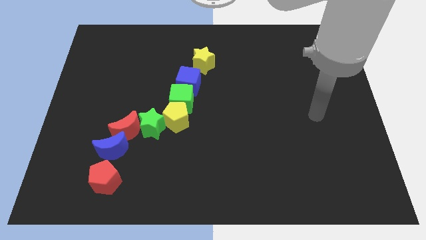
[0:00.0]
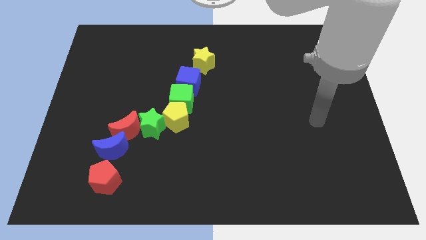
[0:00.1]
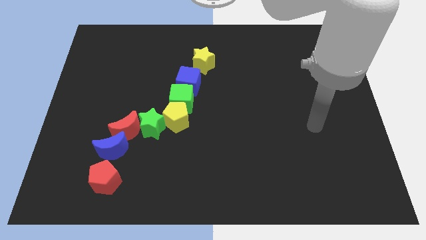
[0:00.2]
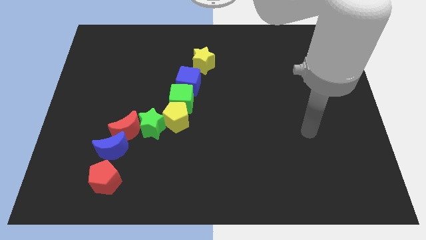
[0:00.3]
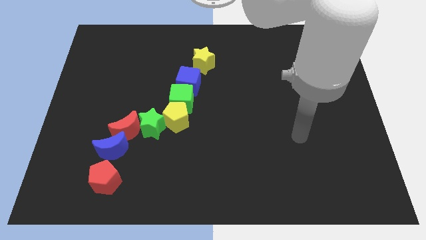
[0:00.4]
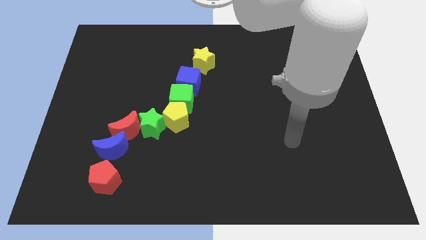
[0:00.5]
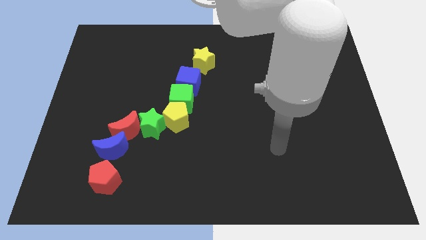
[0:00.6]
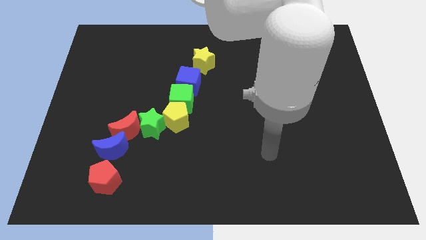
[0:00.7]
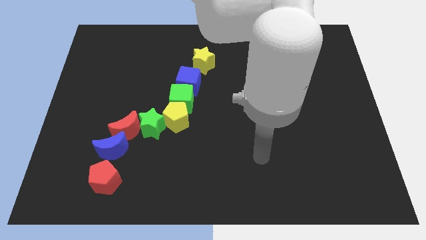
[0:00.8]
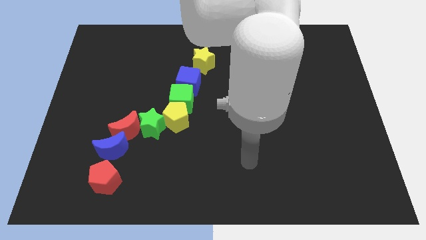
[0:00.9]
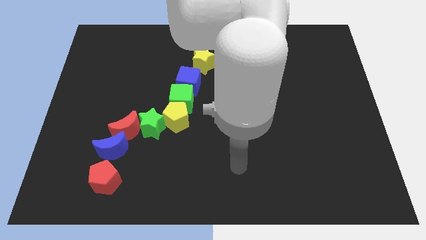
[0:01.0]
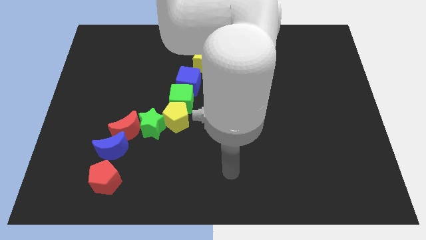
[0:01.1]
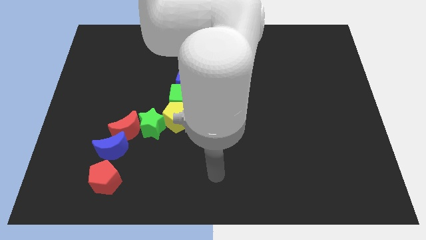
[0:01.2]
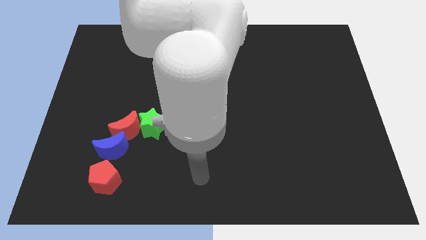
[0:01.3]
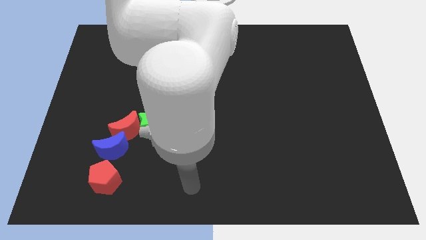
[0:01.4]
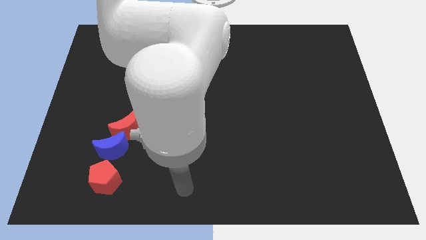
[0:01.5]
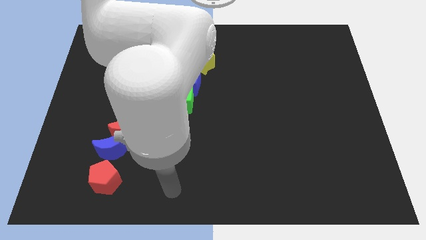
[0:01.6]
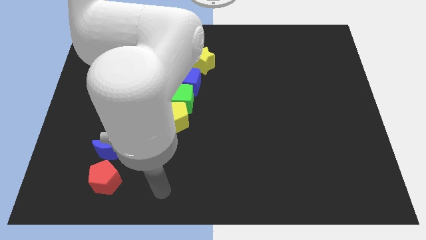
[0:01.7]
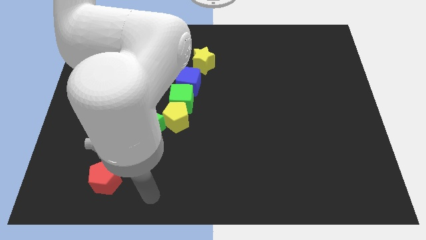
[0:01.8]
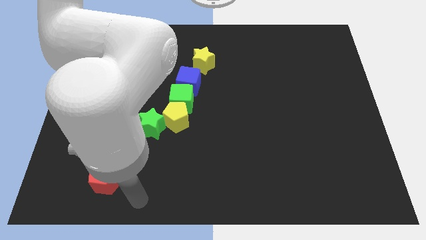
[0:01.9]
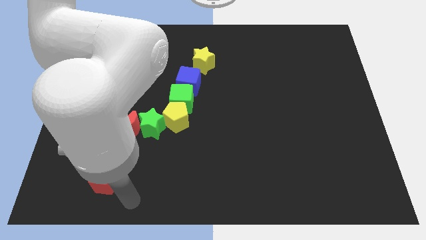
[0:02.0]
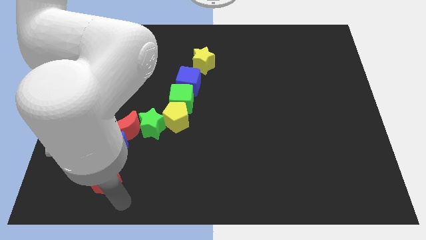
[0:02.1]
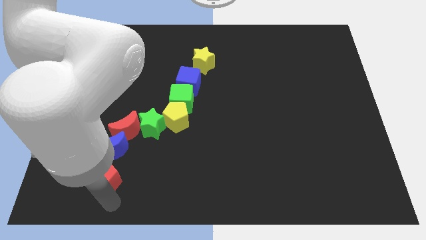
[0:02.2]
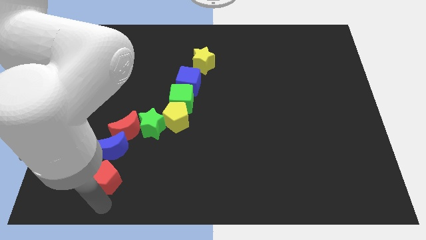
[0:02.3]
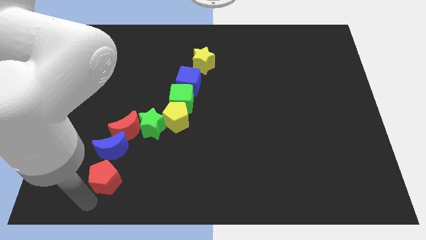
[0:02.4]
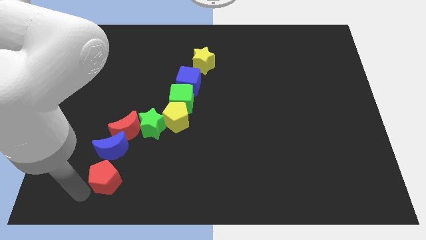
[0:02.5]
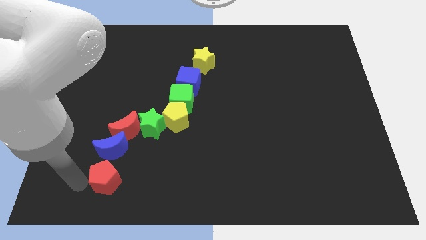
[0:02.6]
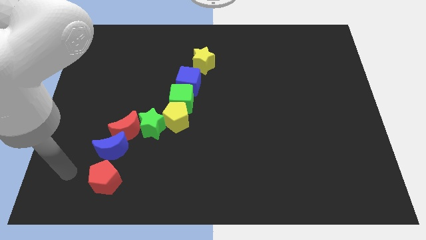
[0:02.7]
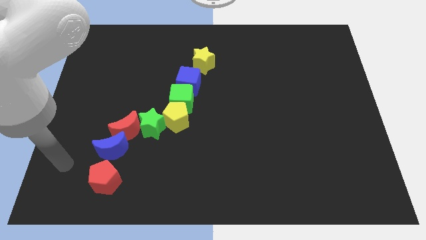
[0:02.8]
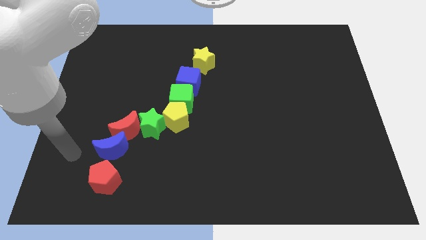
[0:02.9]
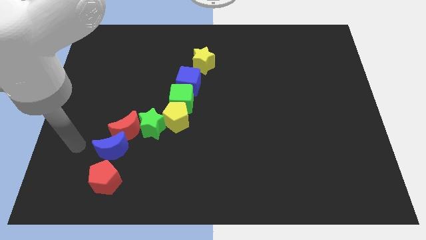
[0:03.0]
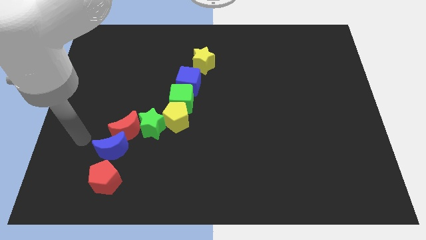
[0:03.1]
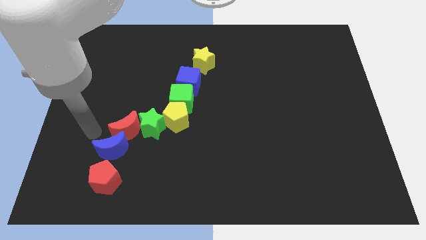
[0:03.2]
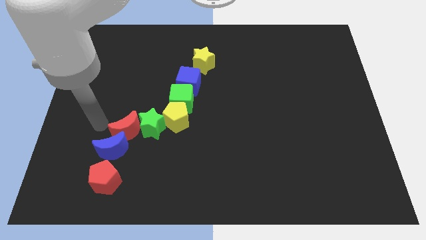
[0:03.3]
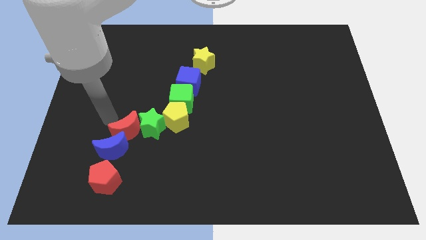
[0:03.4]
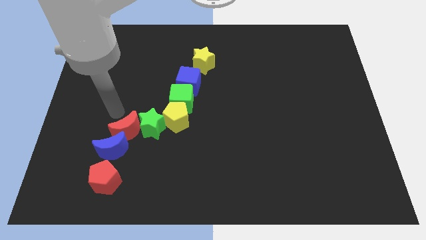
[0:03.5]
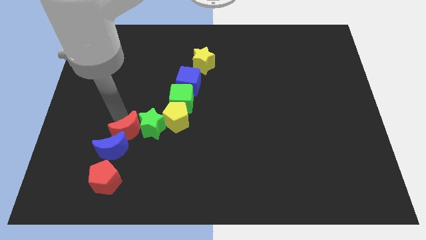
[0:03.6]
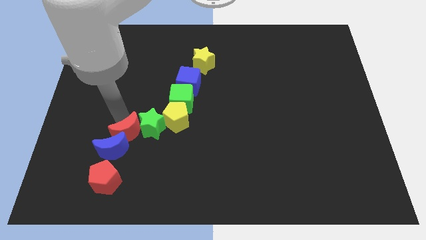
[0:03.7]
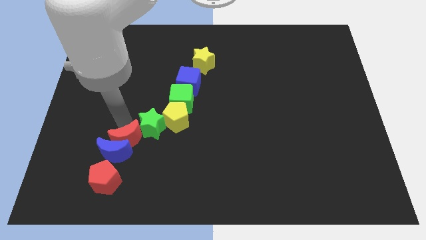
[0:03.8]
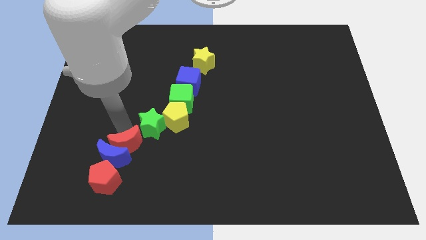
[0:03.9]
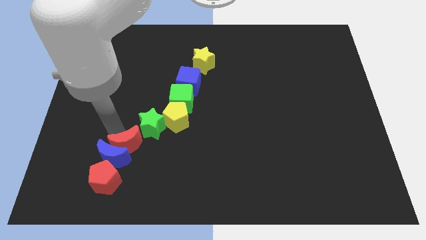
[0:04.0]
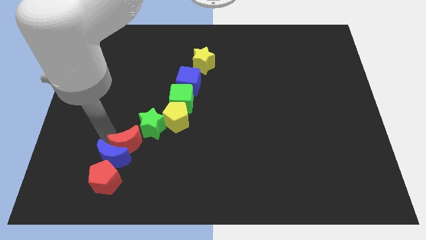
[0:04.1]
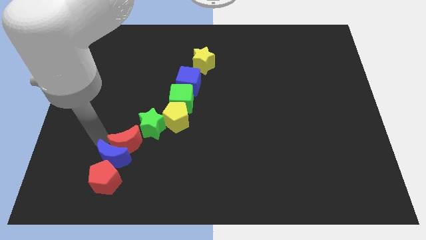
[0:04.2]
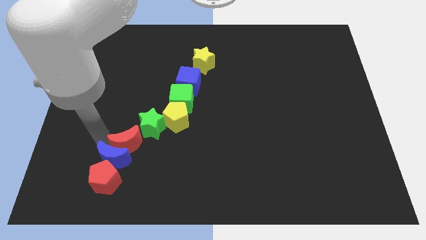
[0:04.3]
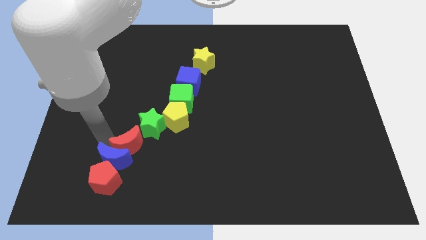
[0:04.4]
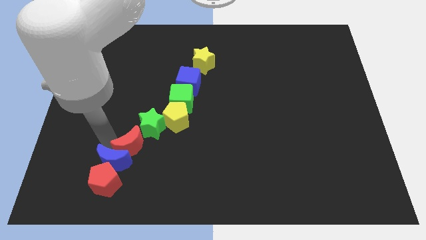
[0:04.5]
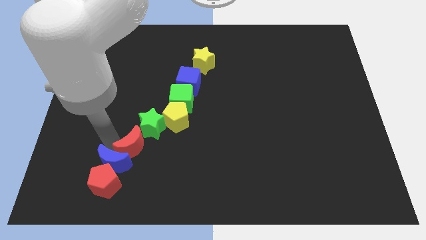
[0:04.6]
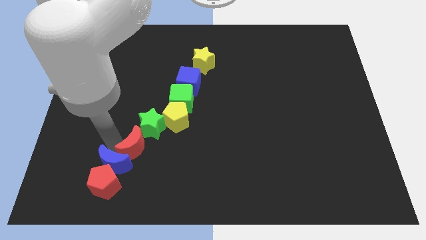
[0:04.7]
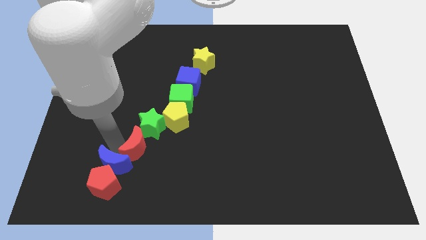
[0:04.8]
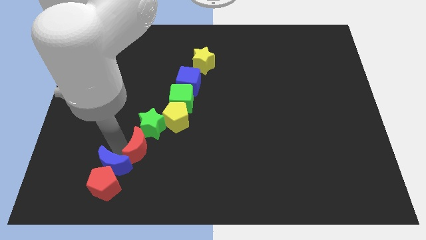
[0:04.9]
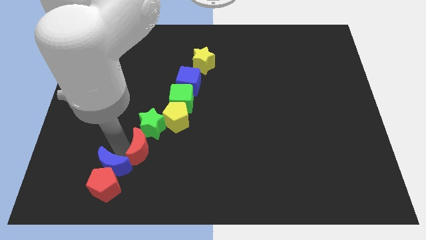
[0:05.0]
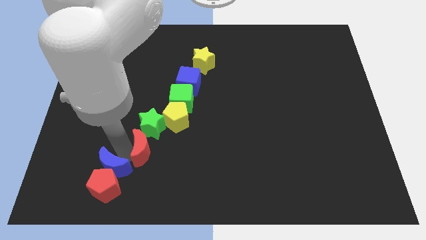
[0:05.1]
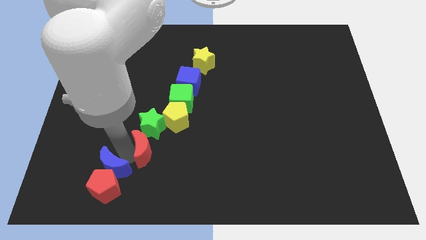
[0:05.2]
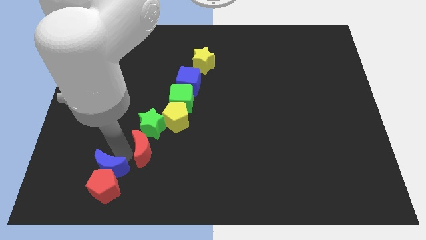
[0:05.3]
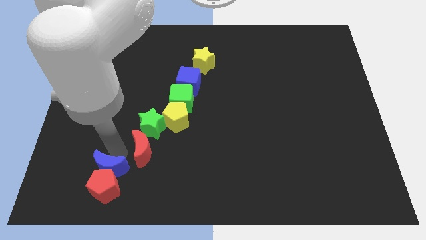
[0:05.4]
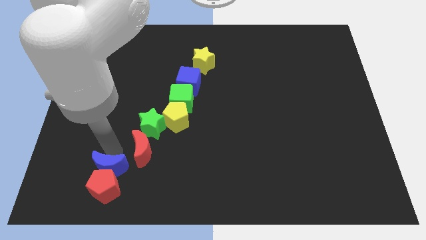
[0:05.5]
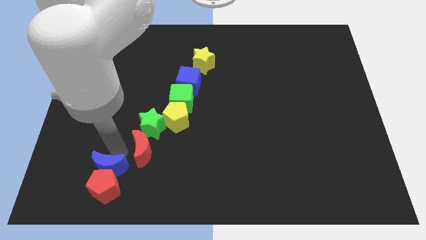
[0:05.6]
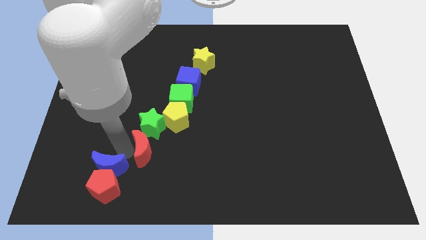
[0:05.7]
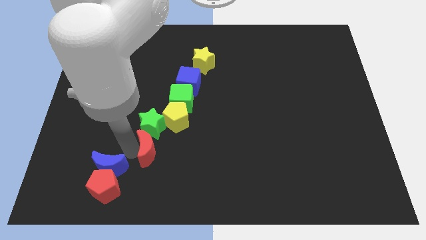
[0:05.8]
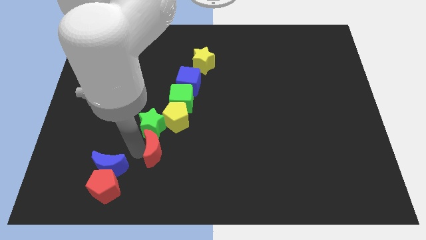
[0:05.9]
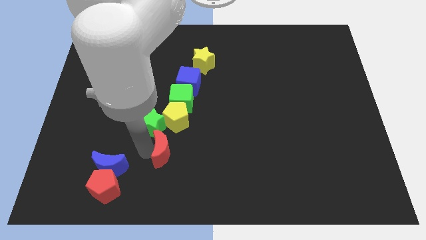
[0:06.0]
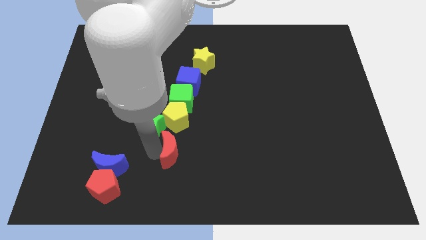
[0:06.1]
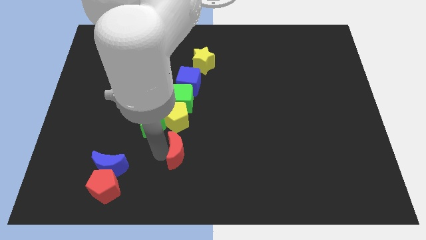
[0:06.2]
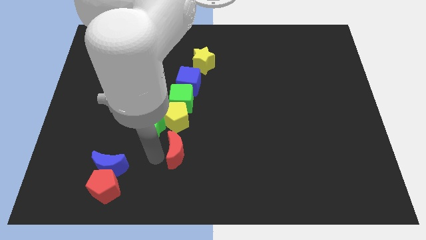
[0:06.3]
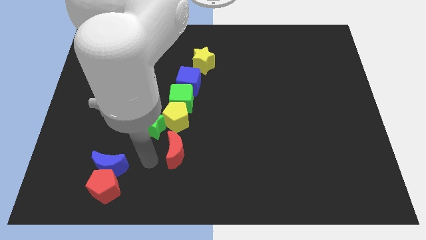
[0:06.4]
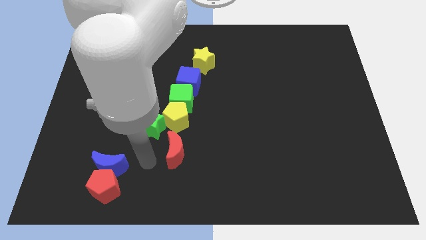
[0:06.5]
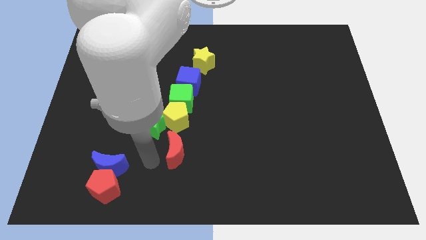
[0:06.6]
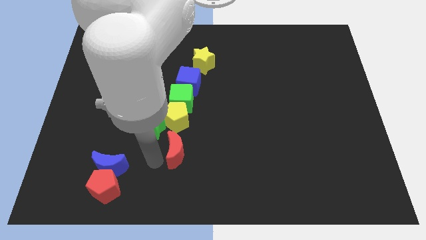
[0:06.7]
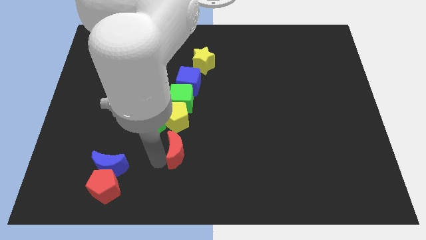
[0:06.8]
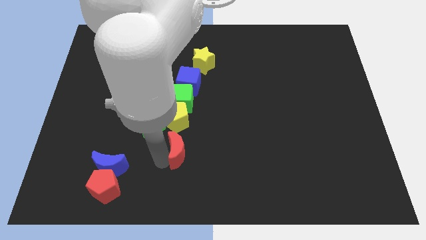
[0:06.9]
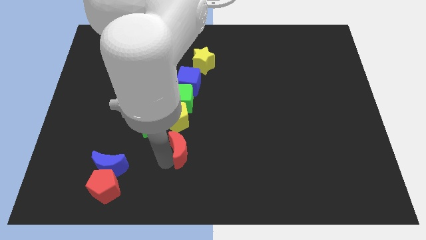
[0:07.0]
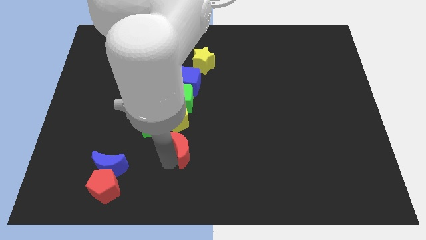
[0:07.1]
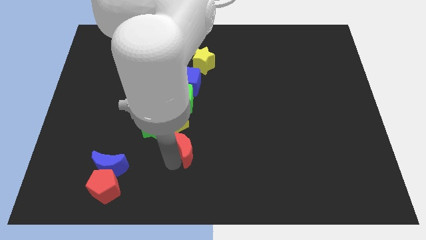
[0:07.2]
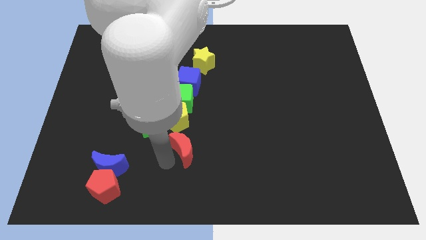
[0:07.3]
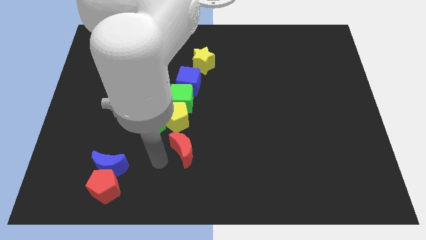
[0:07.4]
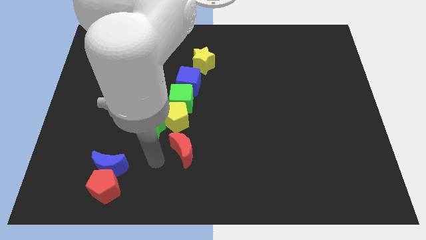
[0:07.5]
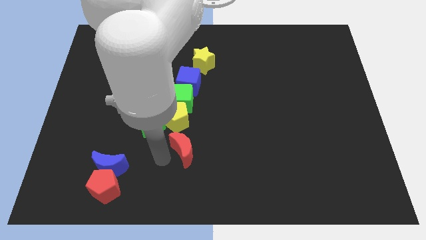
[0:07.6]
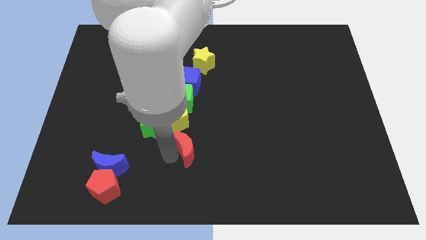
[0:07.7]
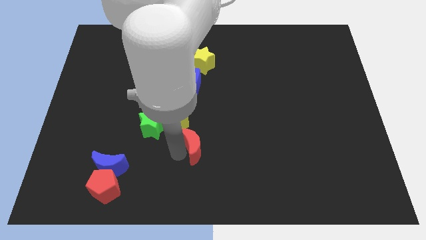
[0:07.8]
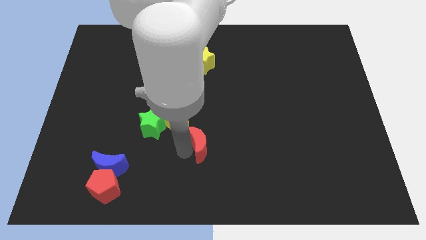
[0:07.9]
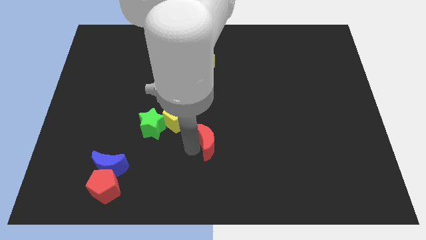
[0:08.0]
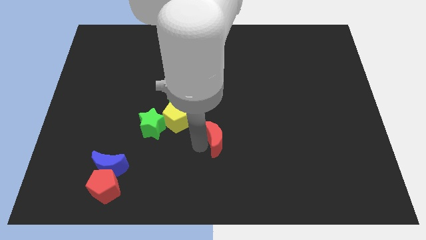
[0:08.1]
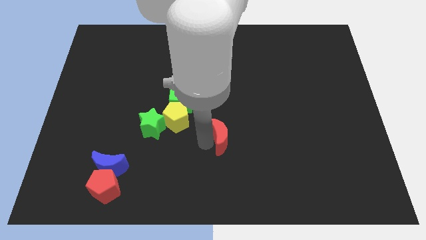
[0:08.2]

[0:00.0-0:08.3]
push the red moon to the right

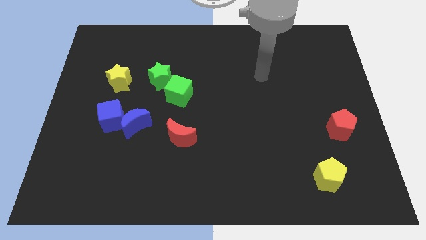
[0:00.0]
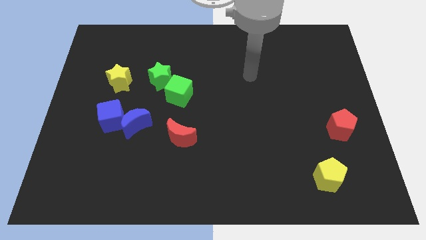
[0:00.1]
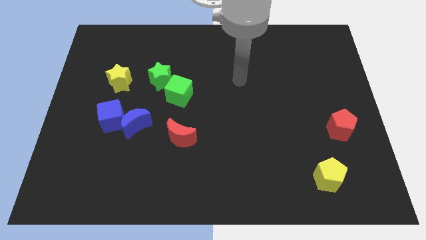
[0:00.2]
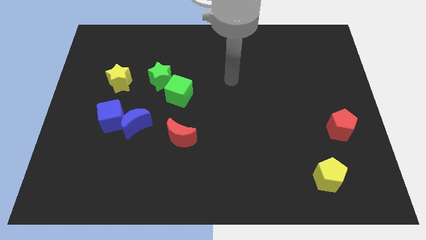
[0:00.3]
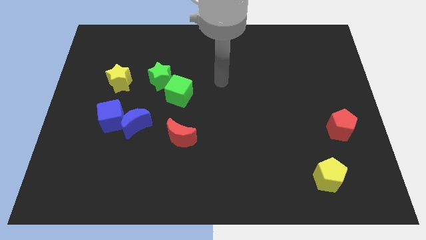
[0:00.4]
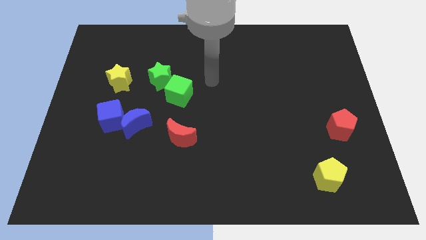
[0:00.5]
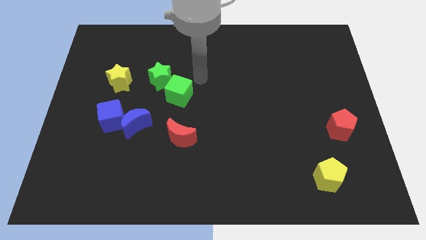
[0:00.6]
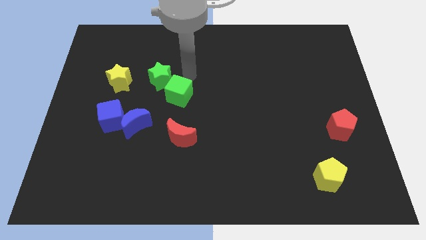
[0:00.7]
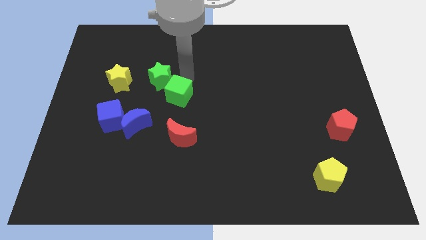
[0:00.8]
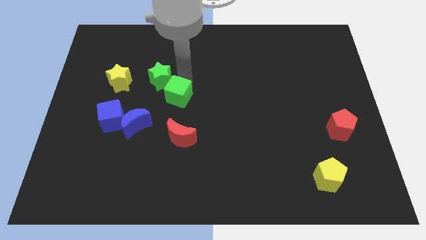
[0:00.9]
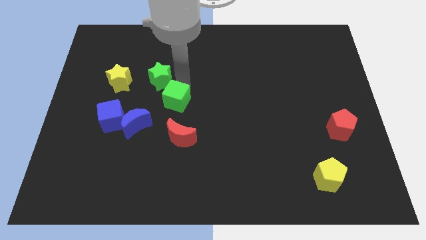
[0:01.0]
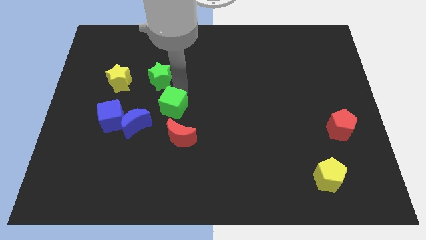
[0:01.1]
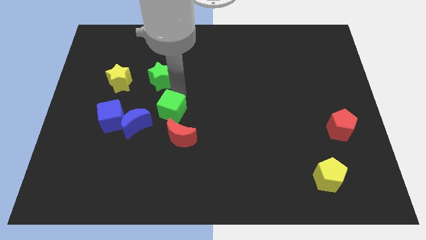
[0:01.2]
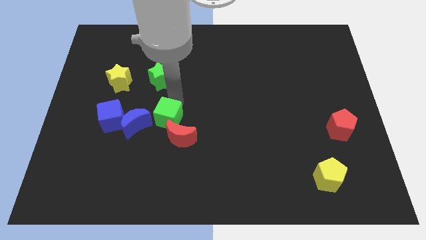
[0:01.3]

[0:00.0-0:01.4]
slightly push the green cube downwards
